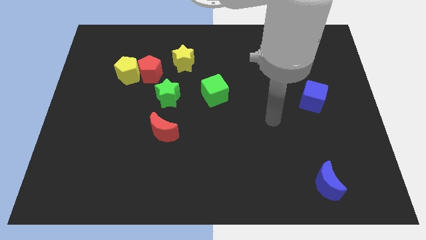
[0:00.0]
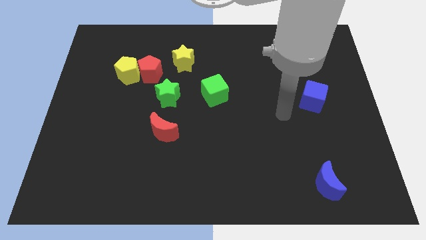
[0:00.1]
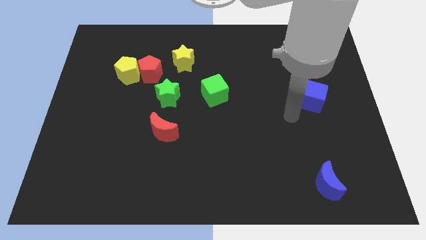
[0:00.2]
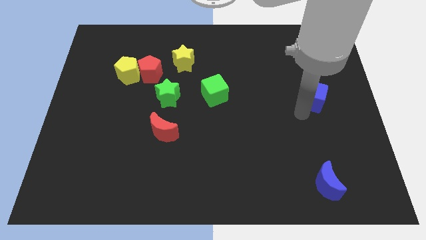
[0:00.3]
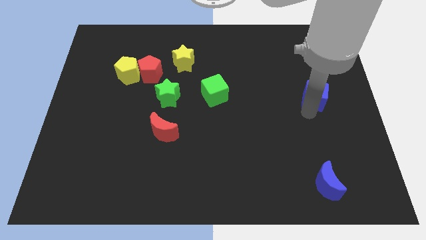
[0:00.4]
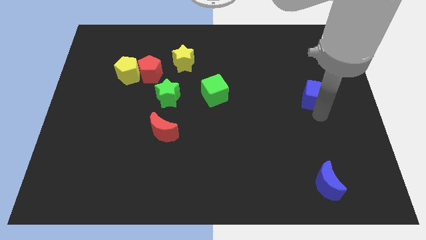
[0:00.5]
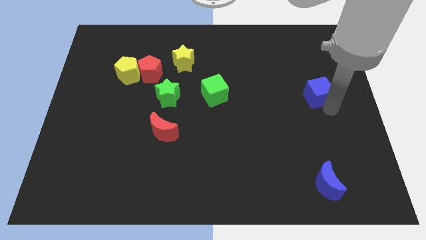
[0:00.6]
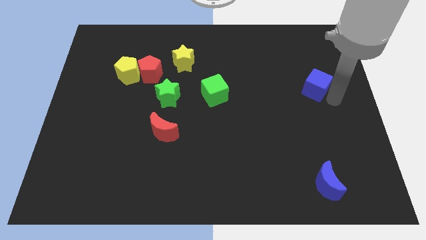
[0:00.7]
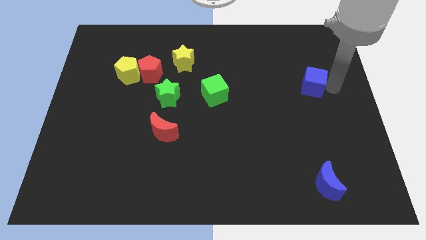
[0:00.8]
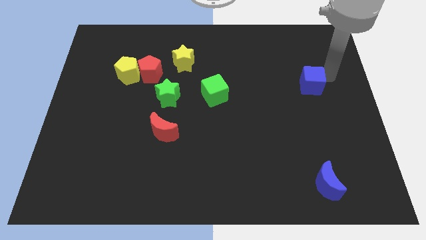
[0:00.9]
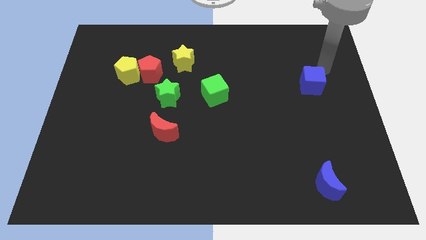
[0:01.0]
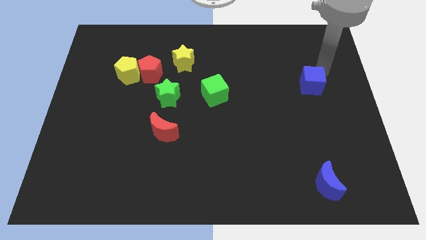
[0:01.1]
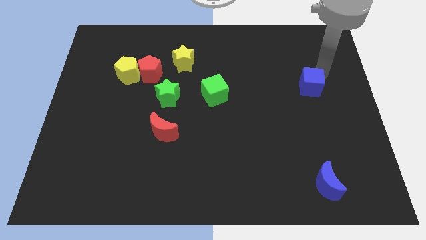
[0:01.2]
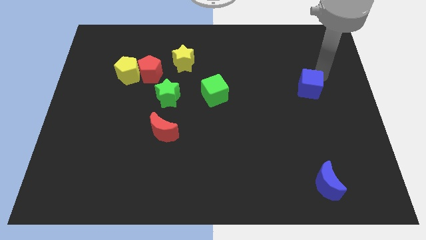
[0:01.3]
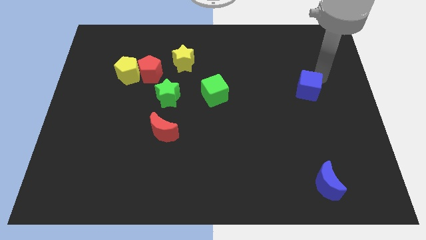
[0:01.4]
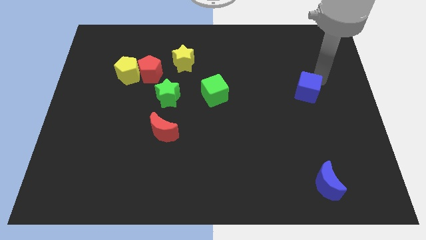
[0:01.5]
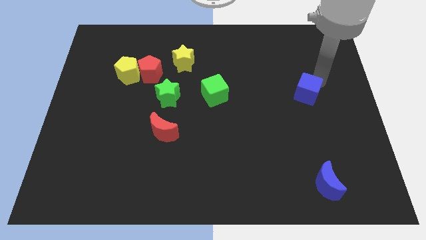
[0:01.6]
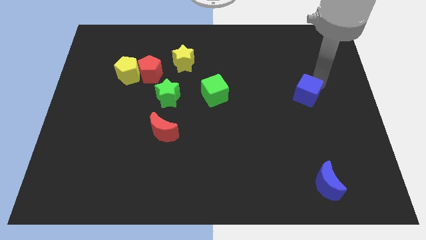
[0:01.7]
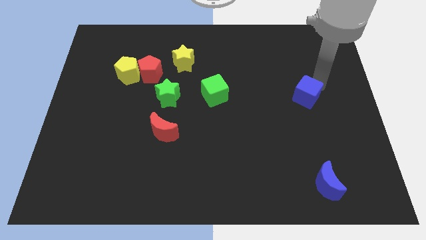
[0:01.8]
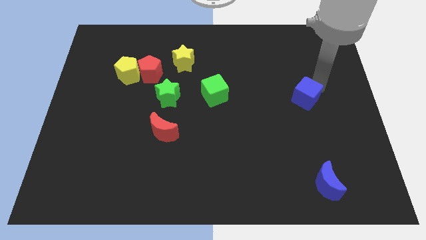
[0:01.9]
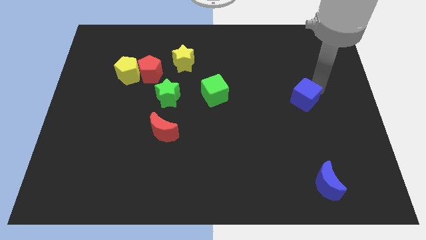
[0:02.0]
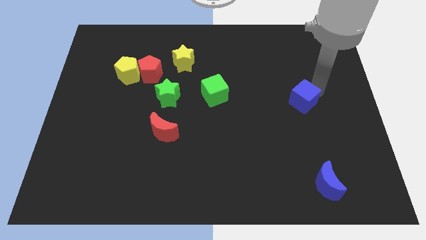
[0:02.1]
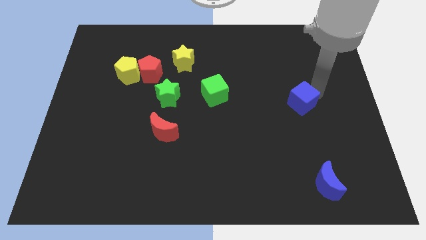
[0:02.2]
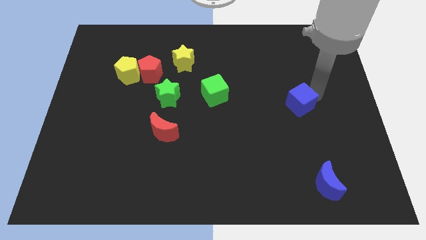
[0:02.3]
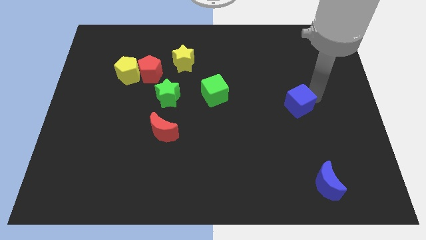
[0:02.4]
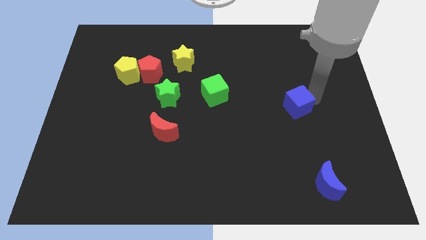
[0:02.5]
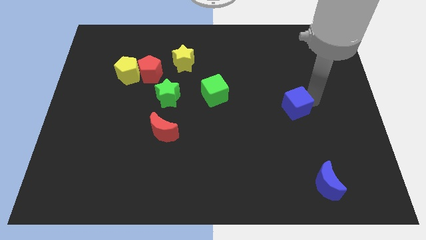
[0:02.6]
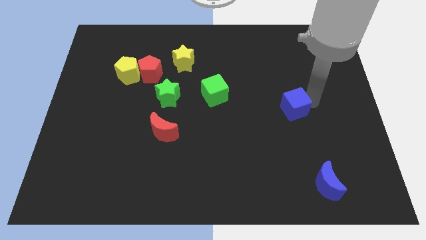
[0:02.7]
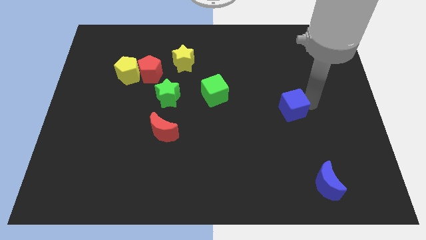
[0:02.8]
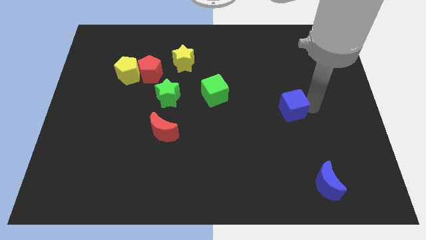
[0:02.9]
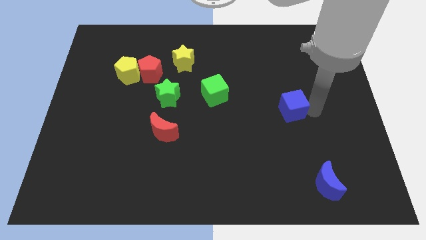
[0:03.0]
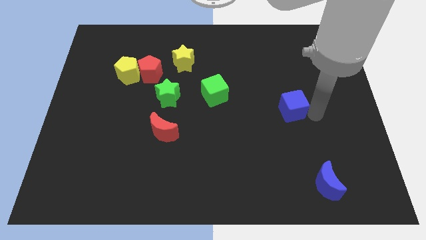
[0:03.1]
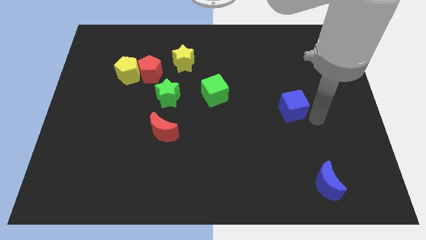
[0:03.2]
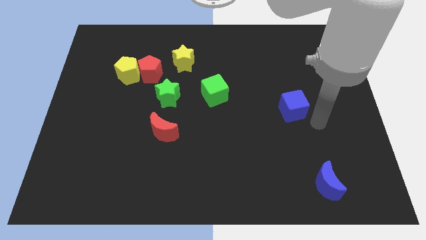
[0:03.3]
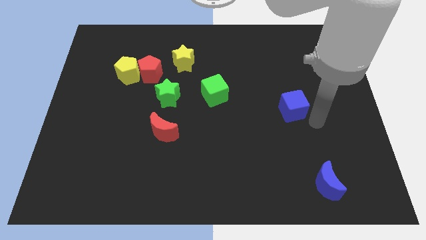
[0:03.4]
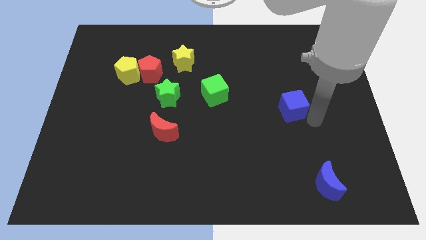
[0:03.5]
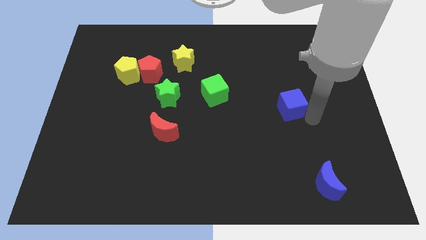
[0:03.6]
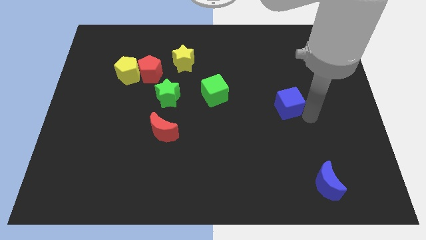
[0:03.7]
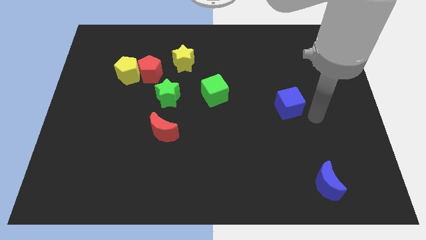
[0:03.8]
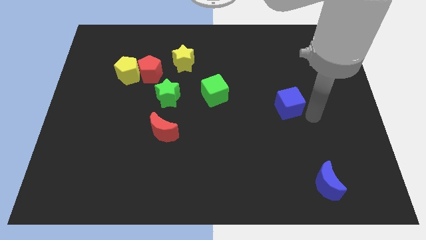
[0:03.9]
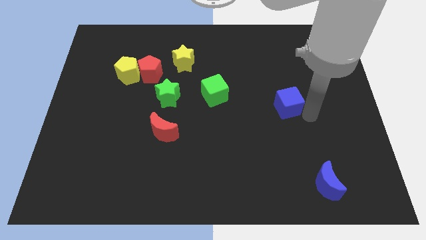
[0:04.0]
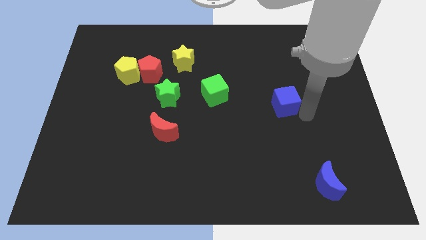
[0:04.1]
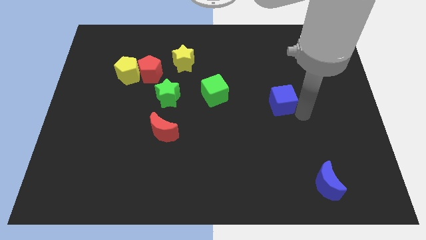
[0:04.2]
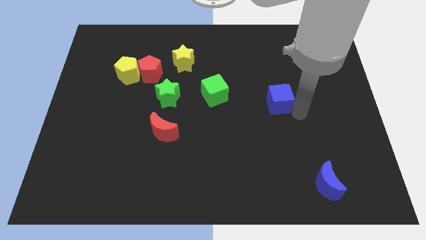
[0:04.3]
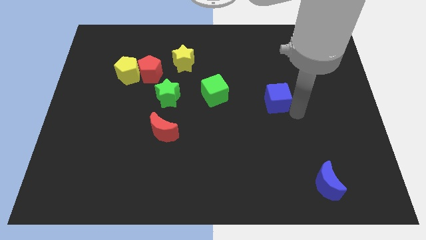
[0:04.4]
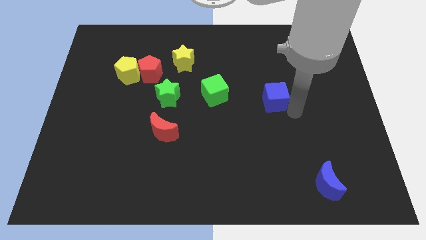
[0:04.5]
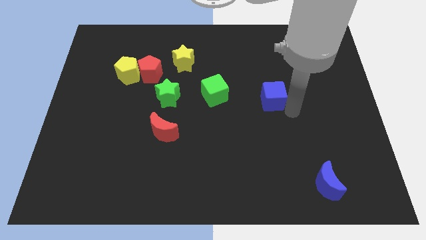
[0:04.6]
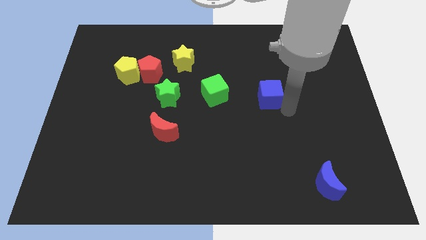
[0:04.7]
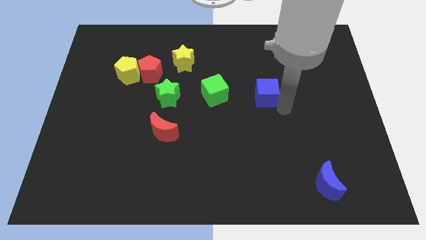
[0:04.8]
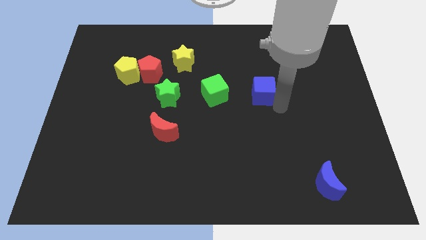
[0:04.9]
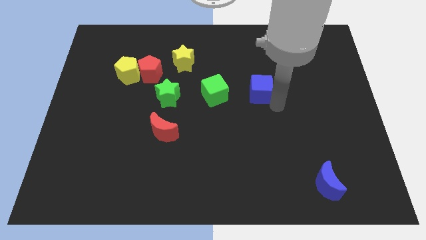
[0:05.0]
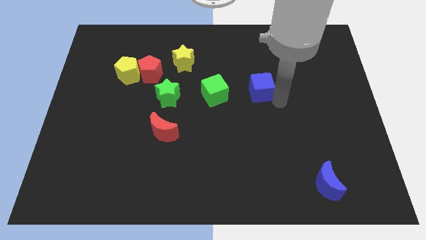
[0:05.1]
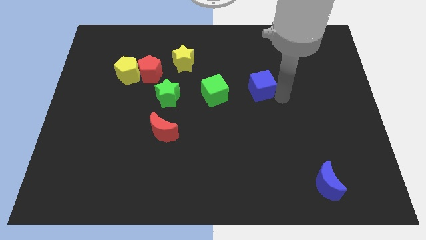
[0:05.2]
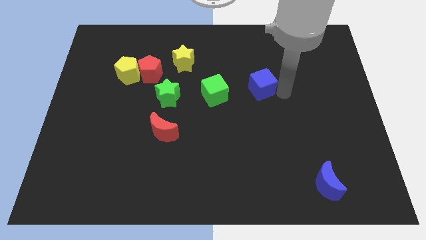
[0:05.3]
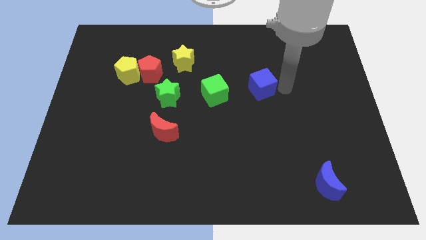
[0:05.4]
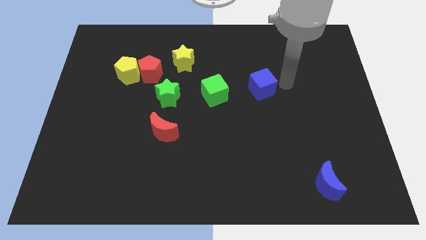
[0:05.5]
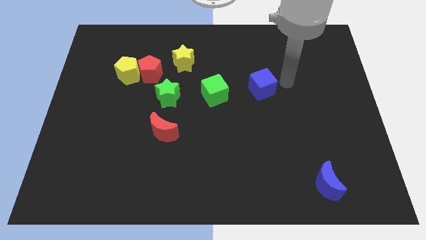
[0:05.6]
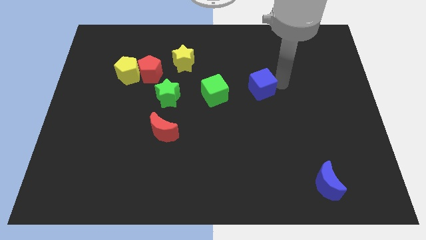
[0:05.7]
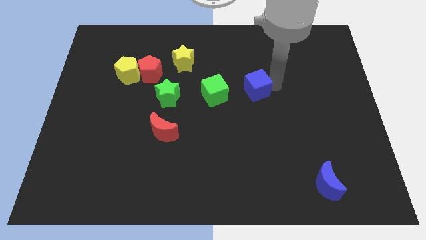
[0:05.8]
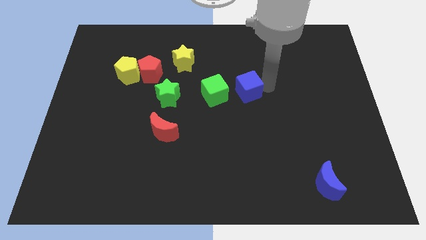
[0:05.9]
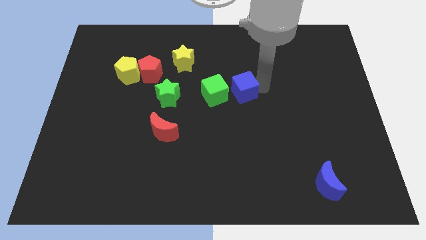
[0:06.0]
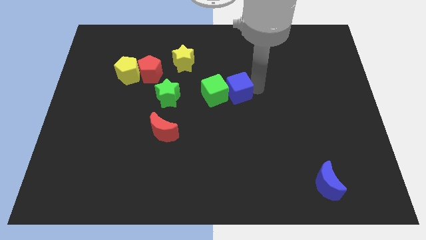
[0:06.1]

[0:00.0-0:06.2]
move the blue cube to the green cube
